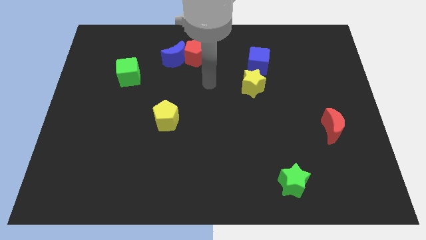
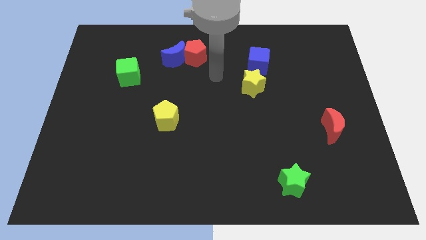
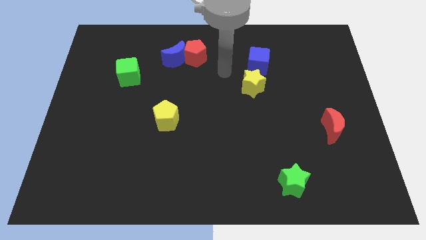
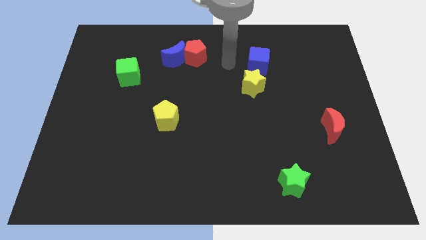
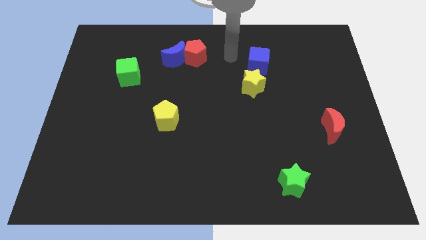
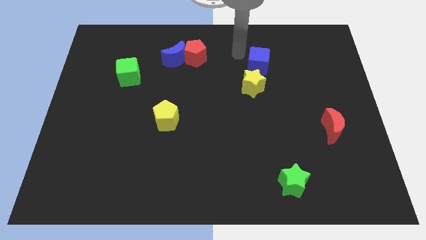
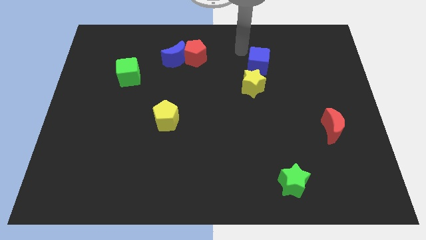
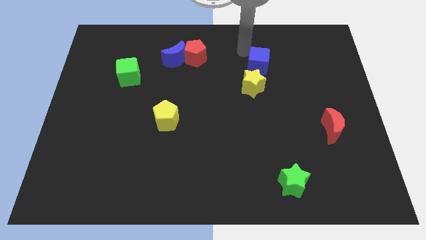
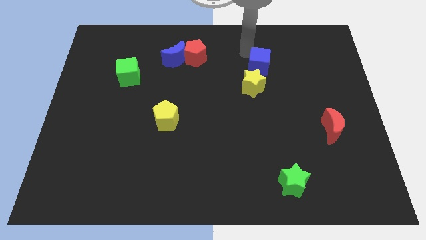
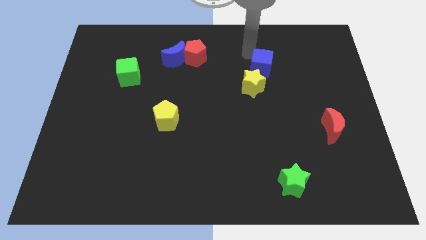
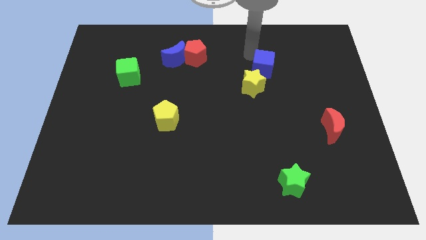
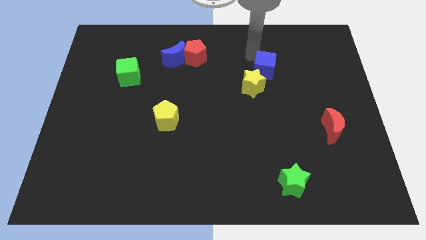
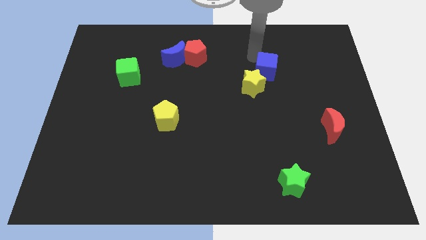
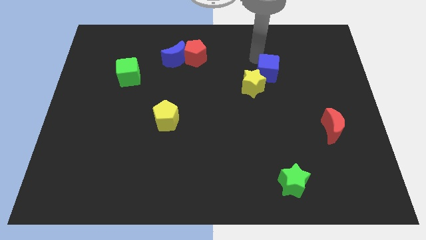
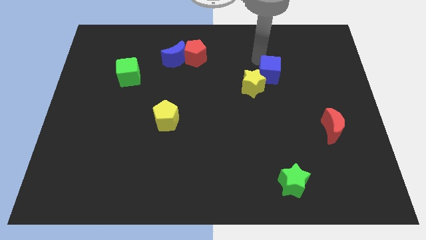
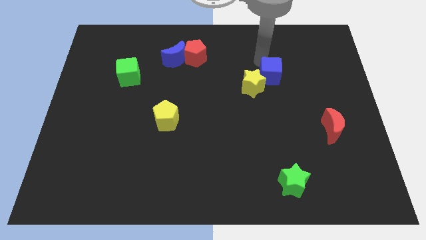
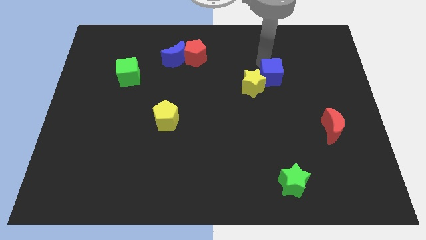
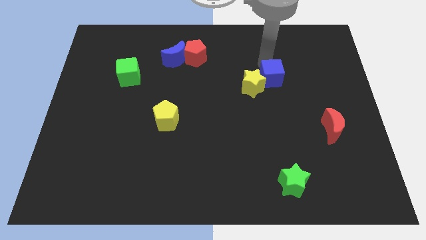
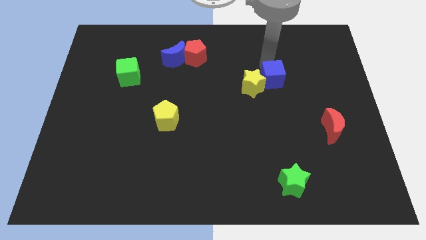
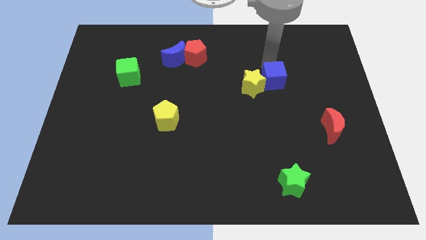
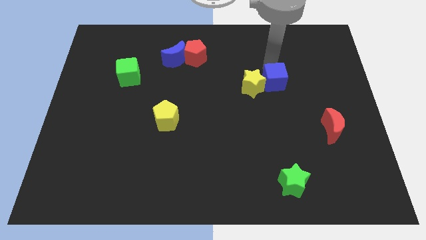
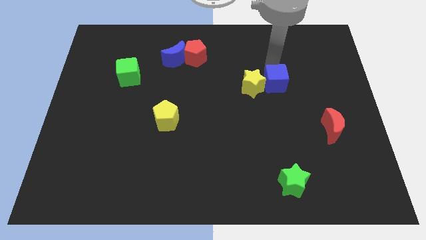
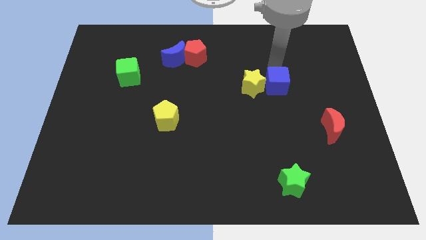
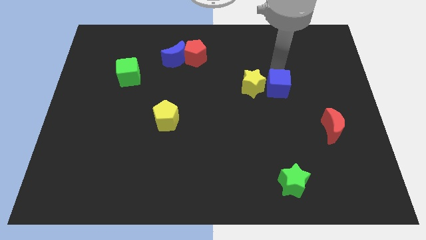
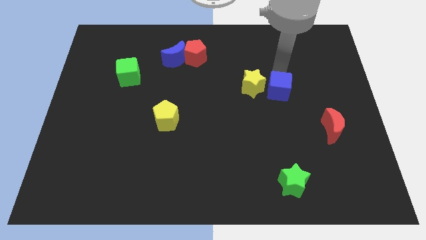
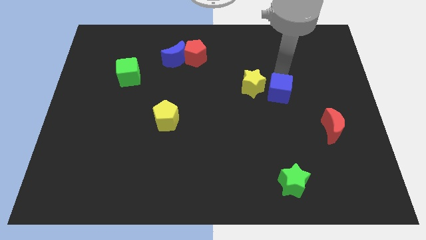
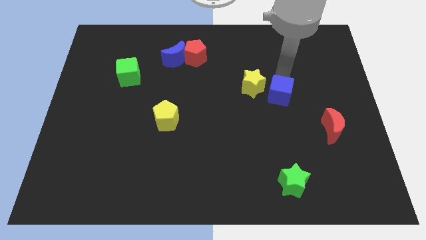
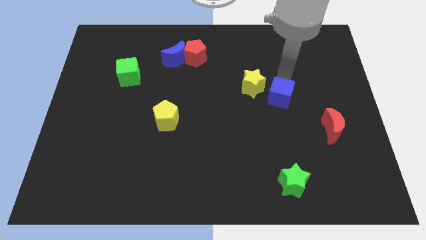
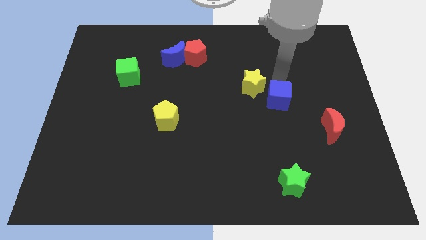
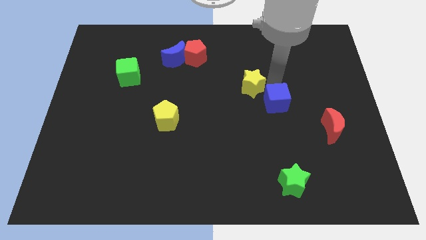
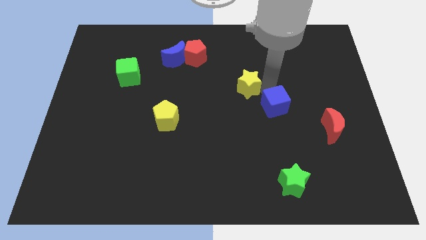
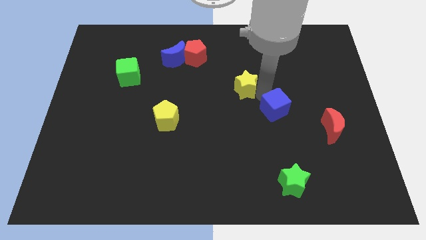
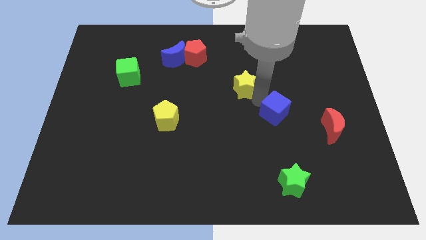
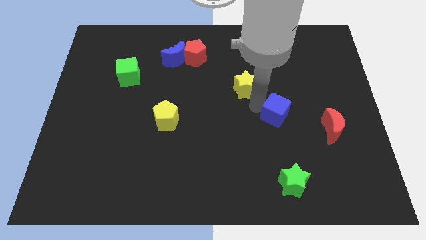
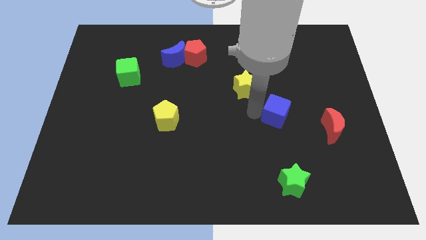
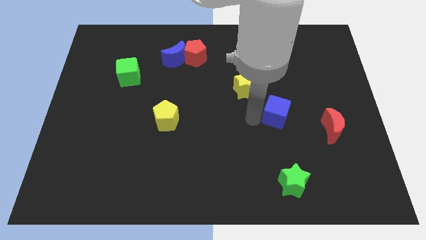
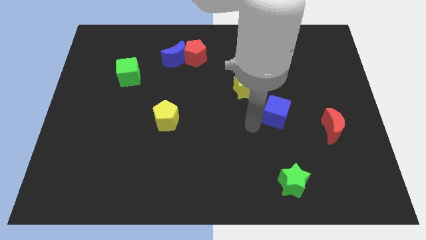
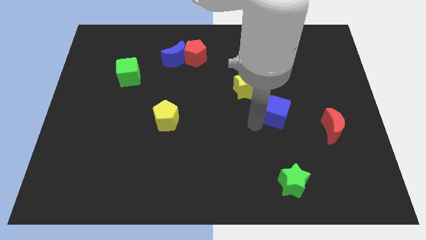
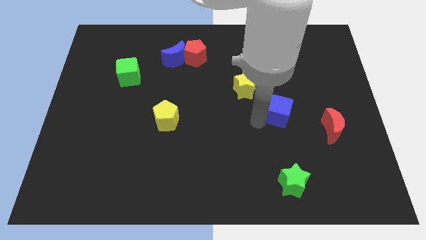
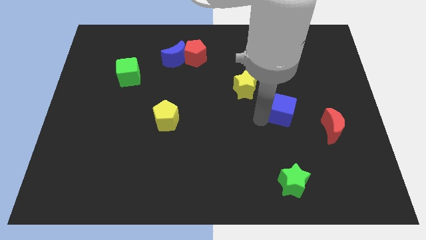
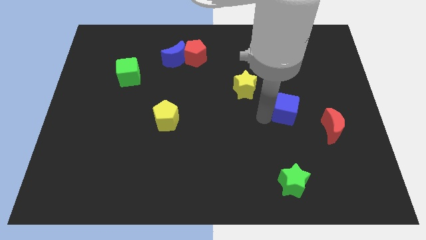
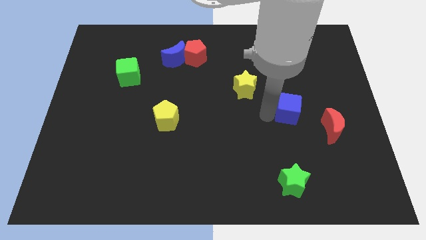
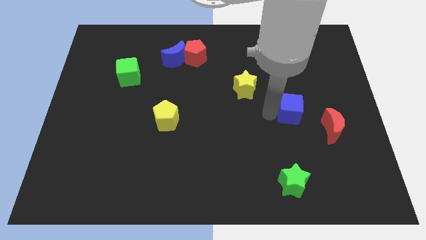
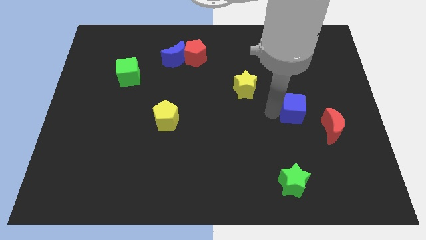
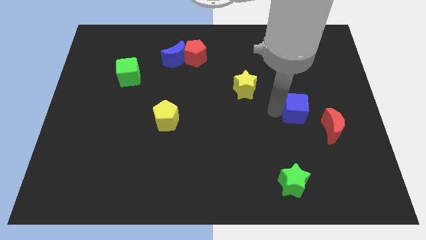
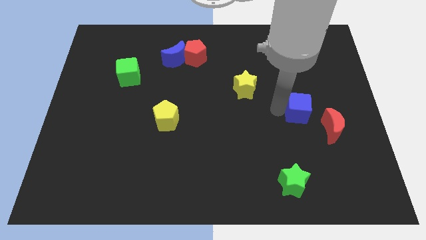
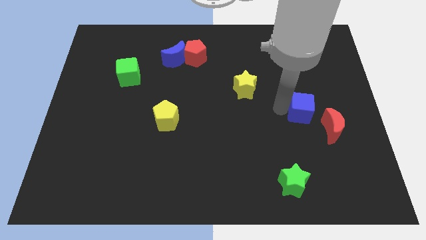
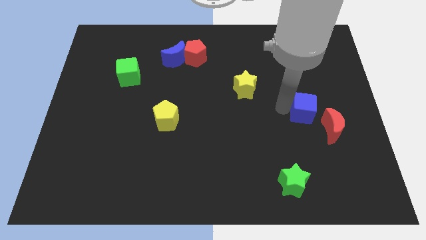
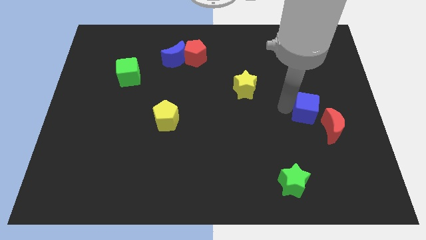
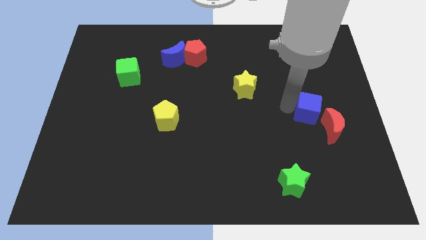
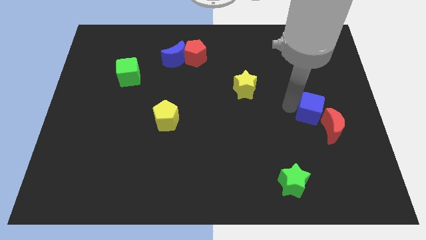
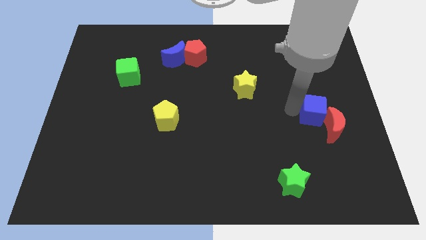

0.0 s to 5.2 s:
move the blue cube close to the red moon

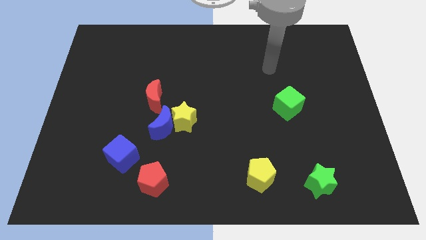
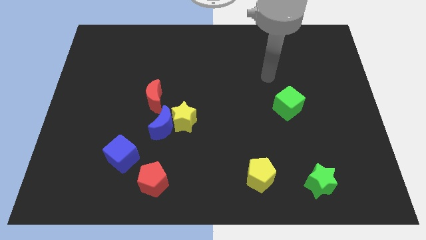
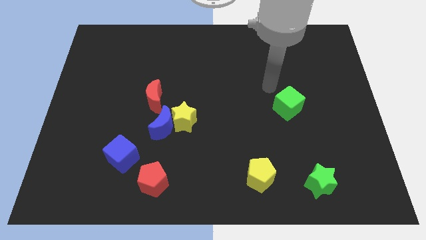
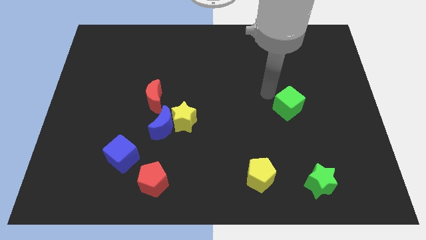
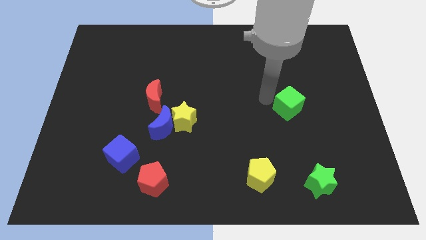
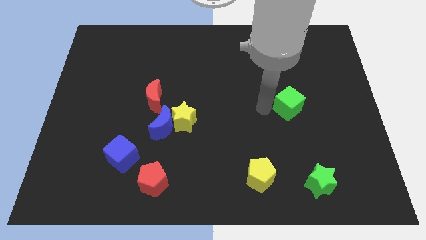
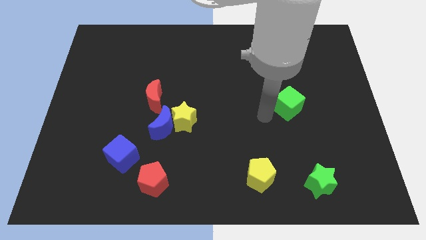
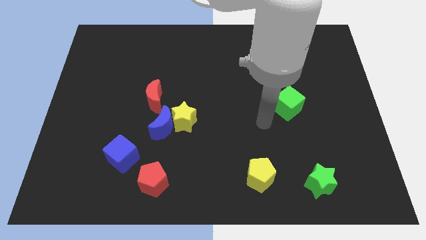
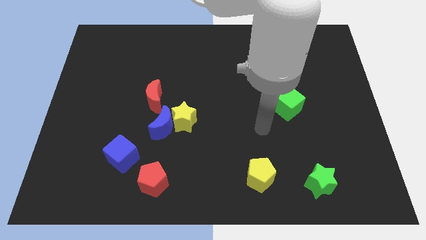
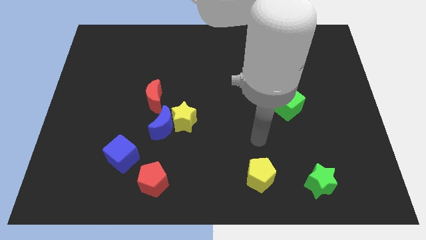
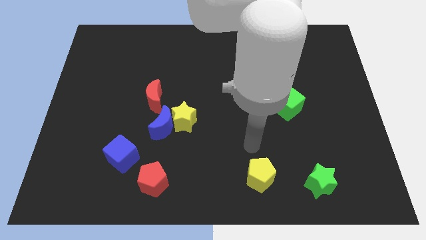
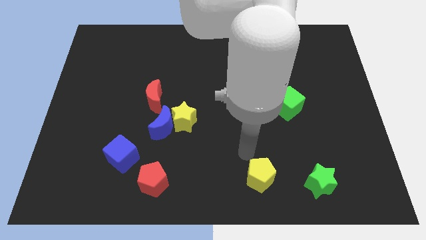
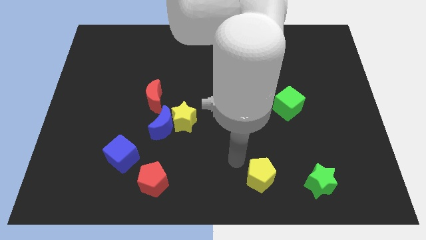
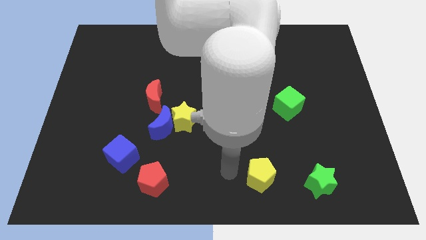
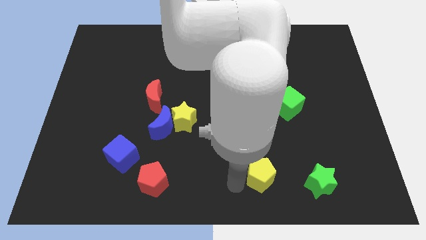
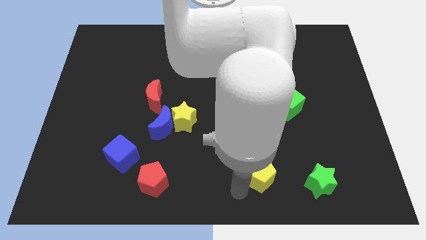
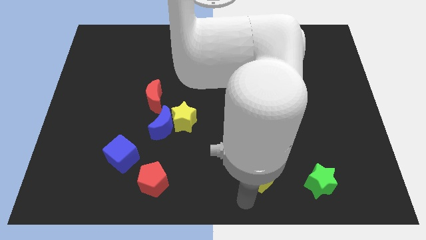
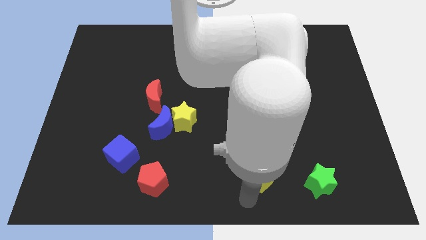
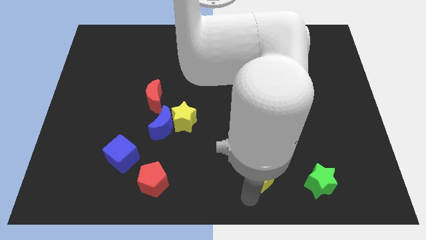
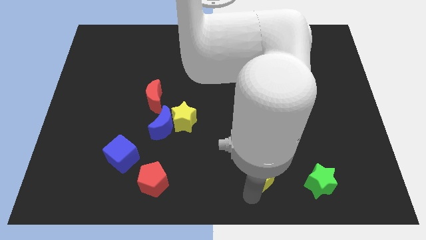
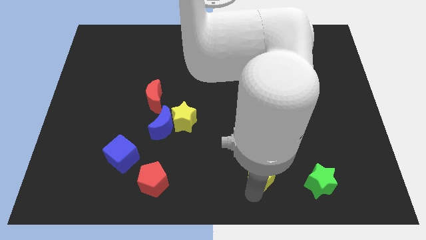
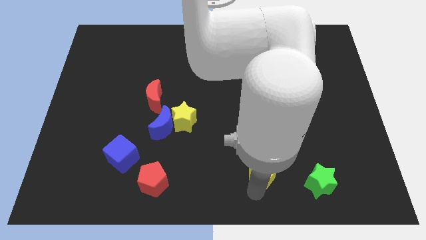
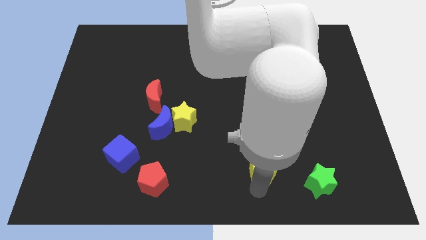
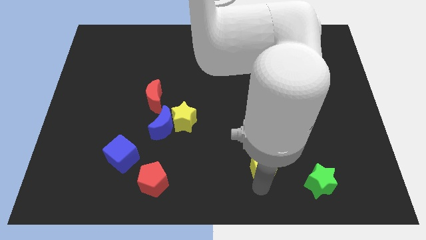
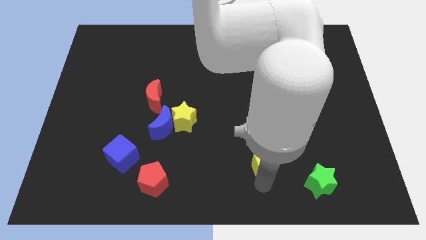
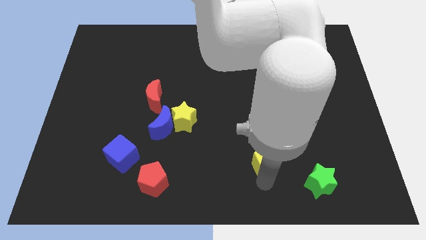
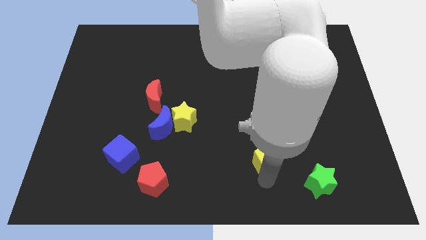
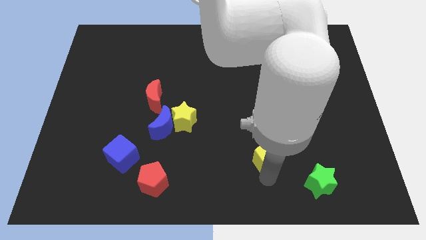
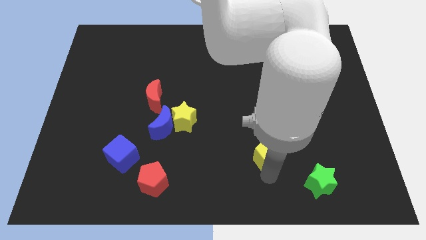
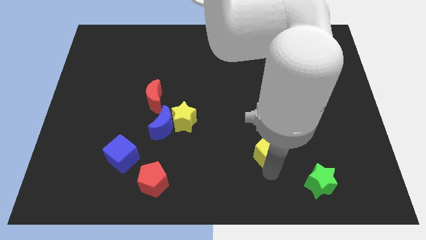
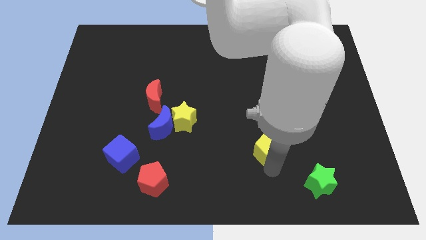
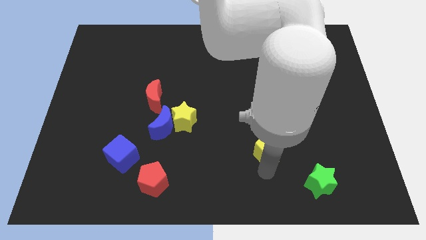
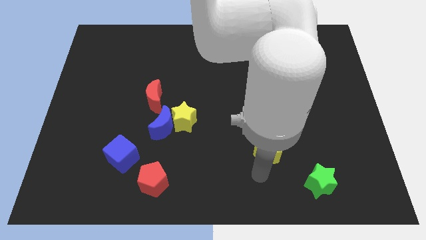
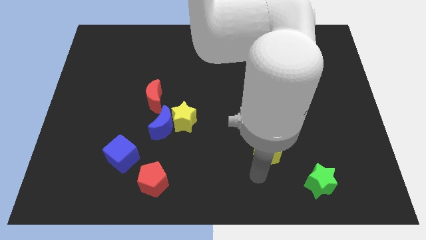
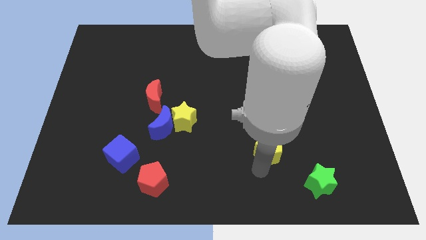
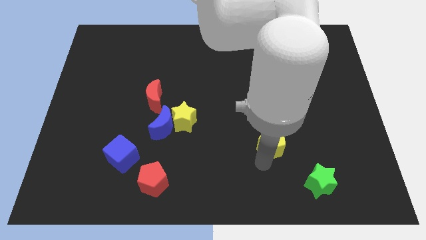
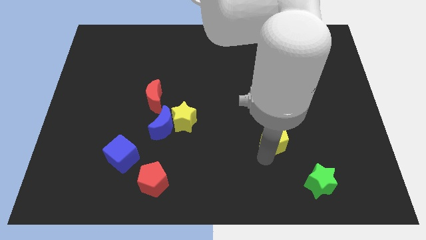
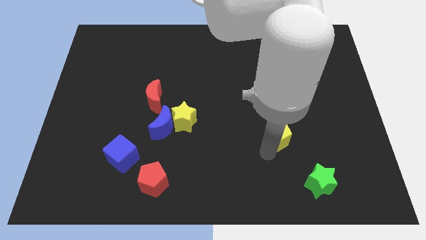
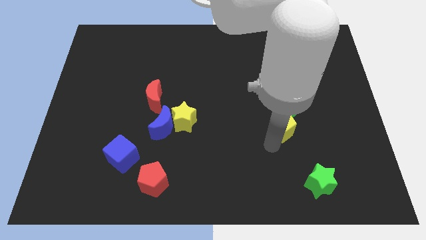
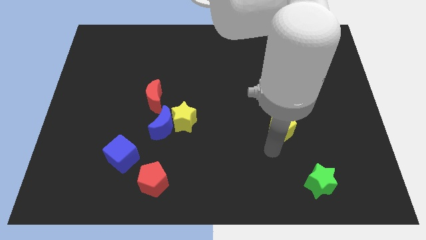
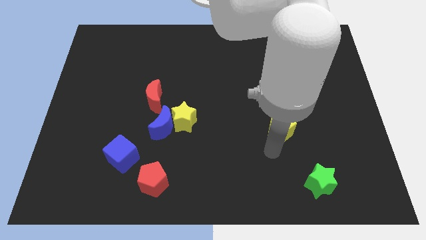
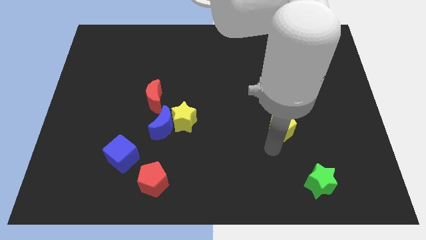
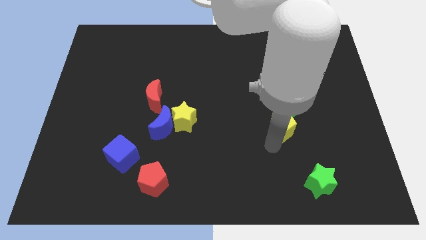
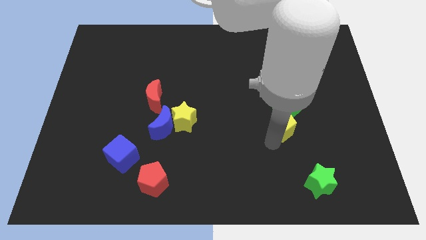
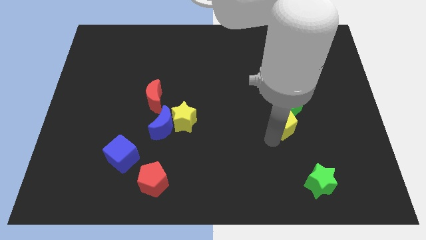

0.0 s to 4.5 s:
push the yellow pentagon towards the green cube
